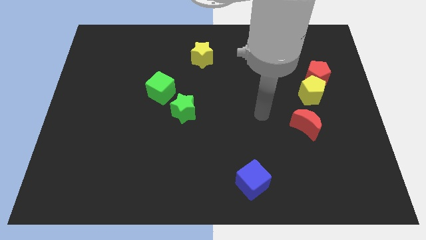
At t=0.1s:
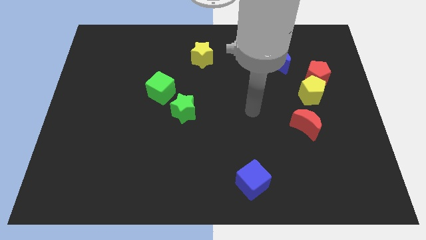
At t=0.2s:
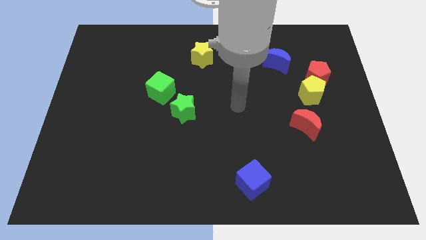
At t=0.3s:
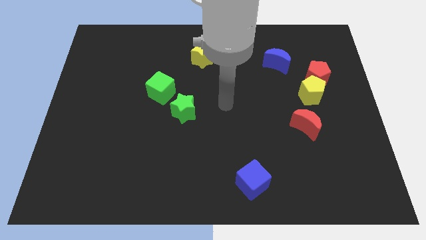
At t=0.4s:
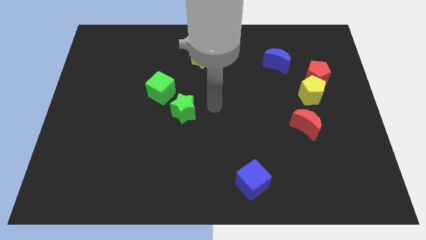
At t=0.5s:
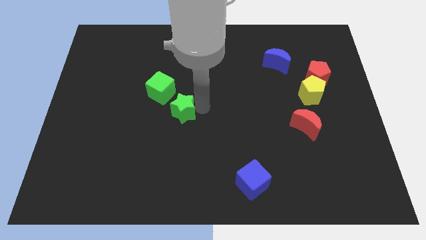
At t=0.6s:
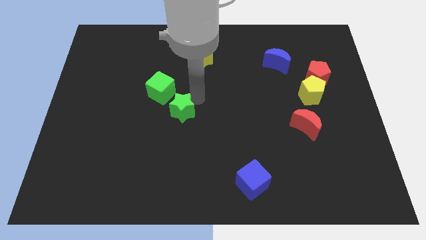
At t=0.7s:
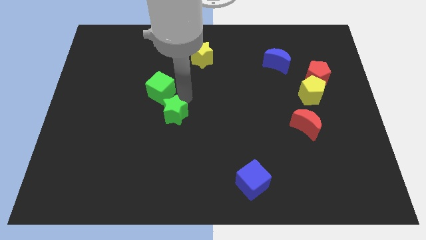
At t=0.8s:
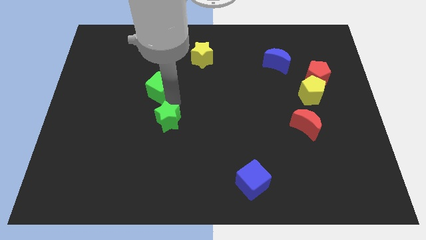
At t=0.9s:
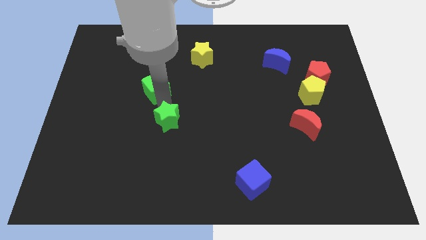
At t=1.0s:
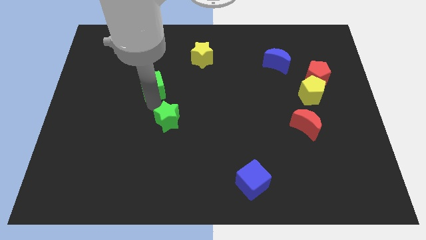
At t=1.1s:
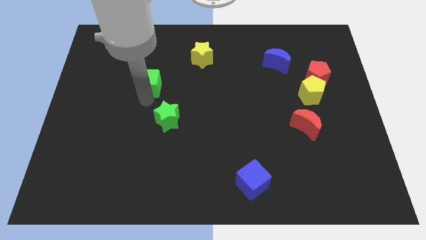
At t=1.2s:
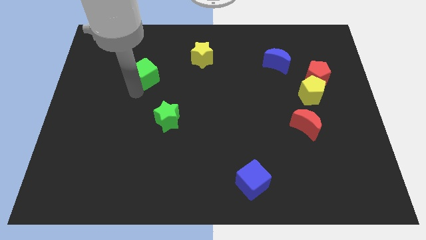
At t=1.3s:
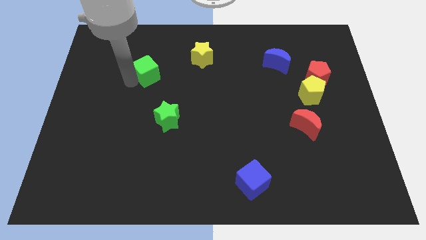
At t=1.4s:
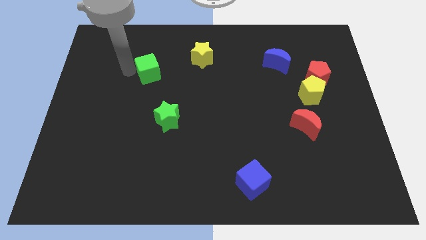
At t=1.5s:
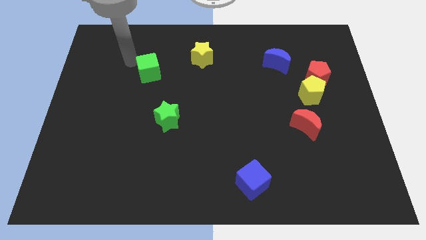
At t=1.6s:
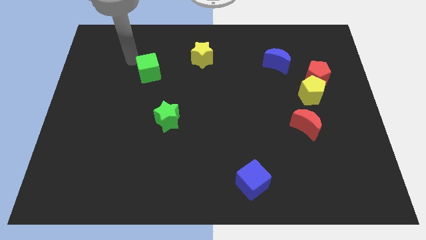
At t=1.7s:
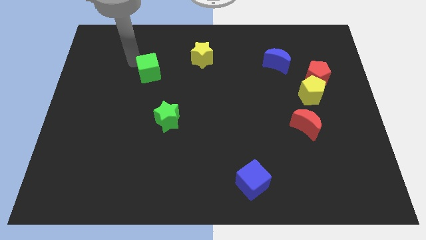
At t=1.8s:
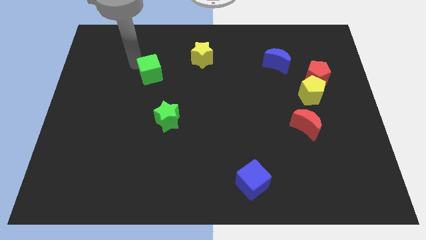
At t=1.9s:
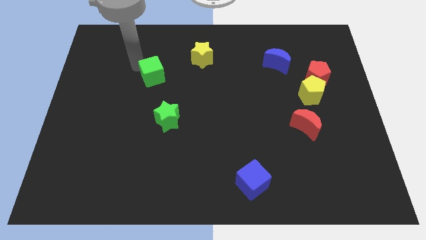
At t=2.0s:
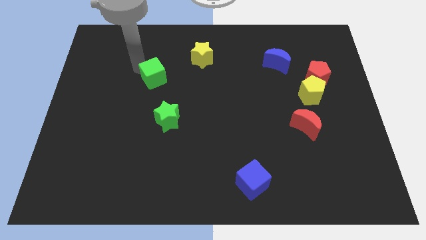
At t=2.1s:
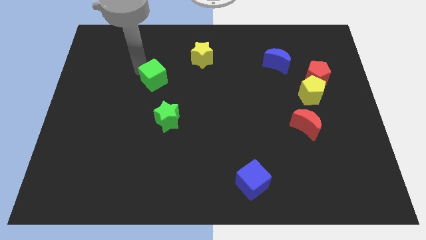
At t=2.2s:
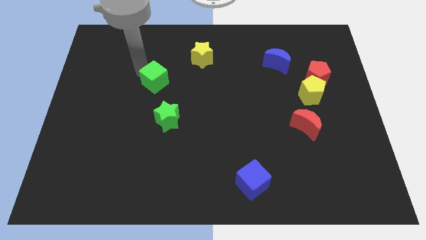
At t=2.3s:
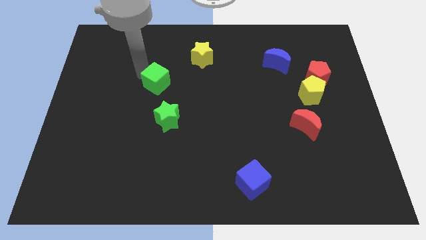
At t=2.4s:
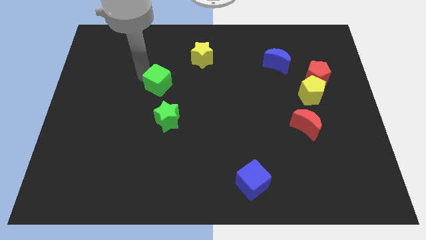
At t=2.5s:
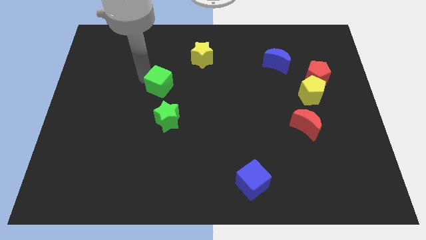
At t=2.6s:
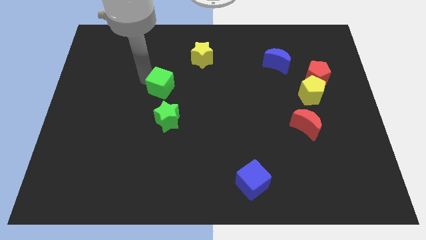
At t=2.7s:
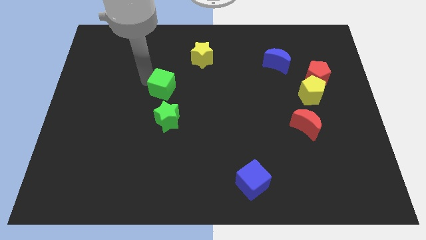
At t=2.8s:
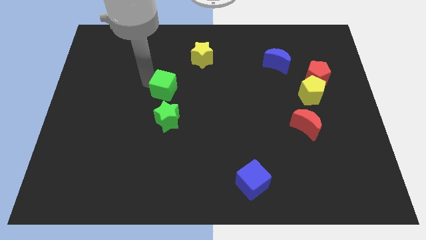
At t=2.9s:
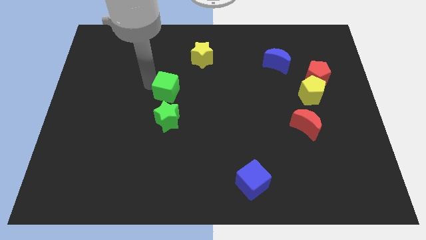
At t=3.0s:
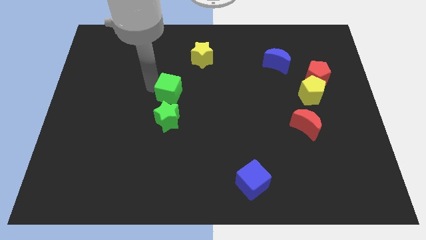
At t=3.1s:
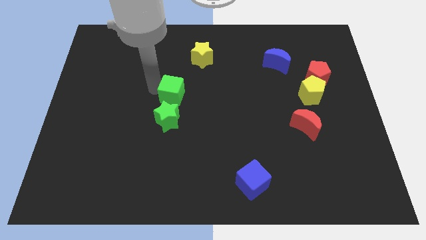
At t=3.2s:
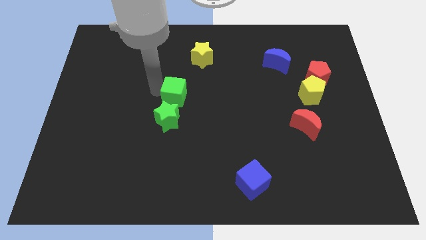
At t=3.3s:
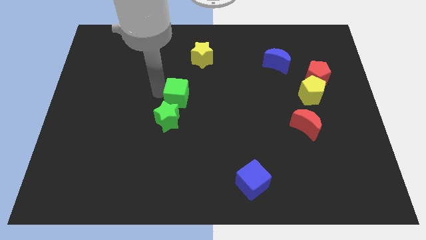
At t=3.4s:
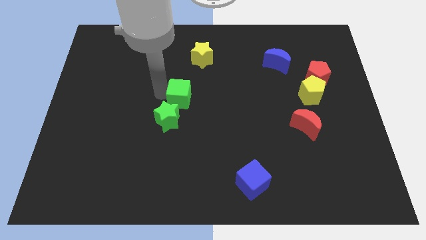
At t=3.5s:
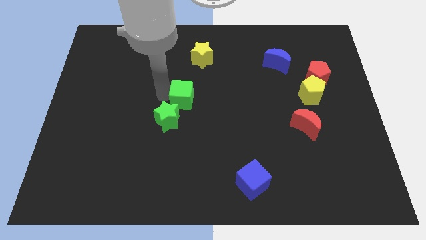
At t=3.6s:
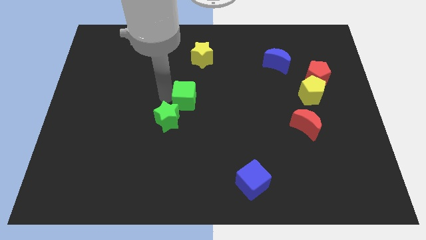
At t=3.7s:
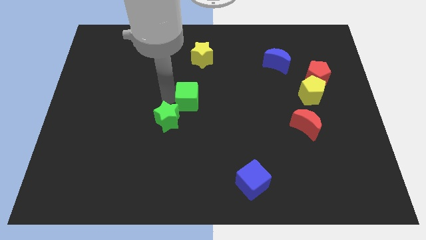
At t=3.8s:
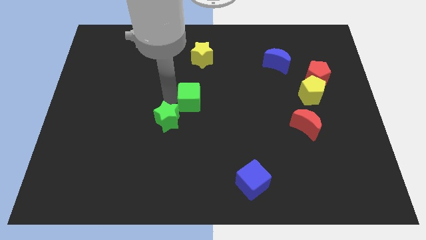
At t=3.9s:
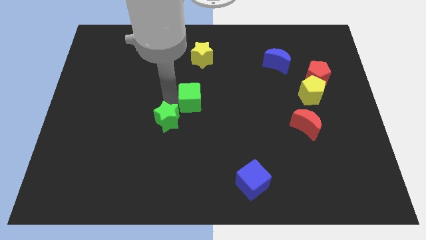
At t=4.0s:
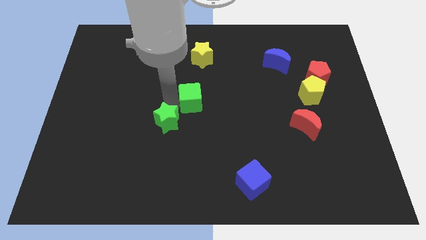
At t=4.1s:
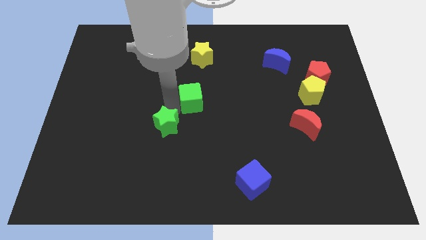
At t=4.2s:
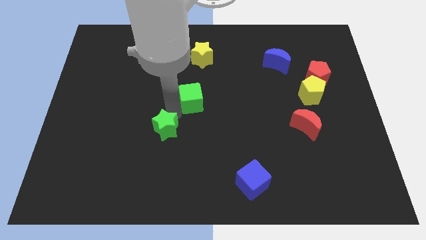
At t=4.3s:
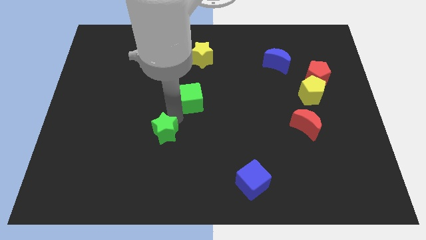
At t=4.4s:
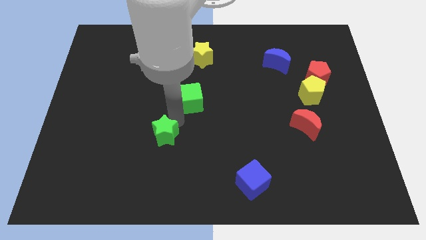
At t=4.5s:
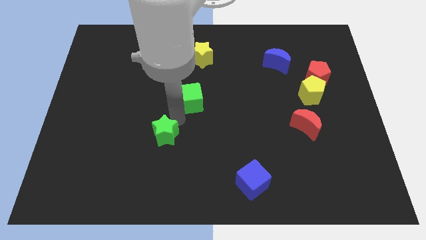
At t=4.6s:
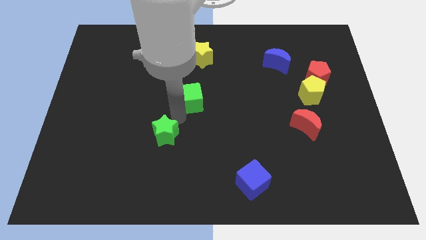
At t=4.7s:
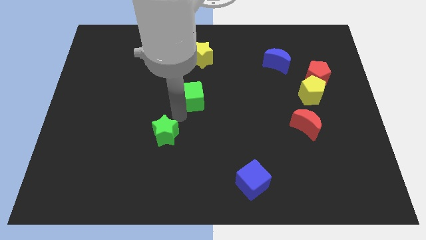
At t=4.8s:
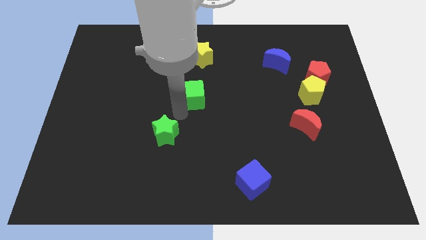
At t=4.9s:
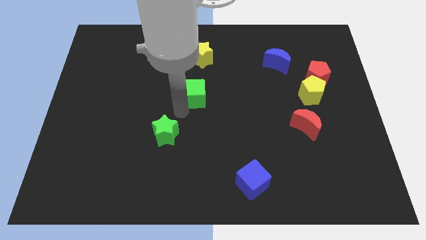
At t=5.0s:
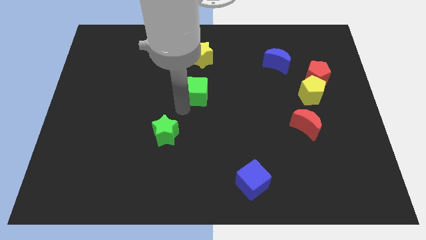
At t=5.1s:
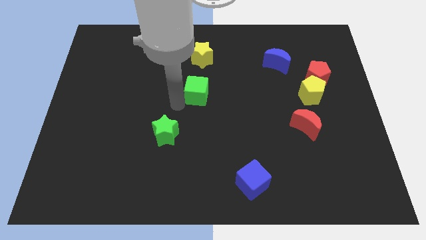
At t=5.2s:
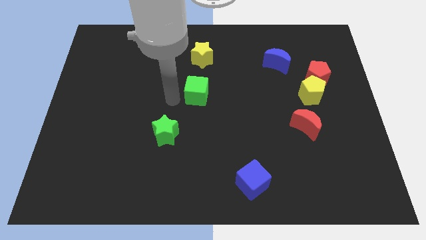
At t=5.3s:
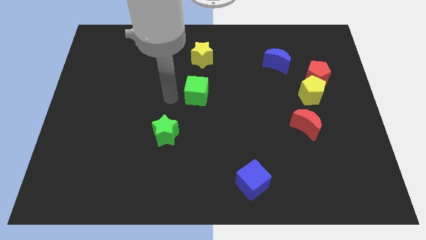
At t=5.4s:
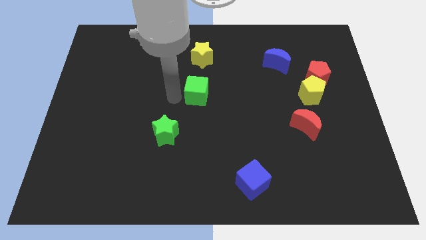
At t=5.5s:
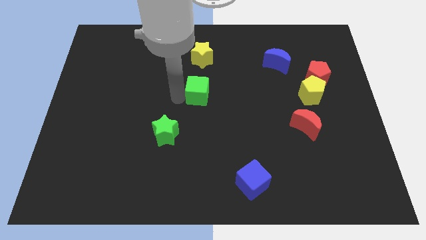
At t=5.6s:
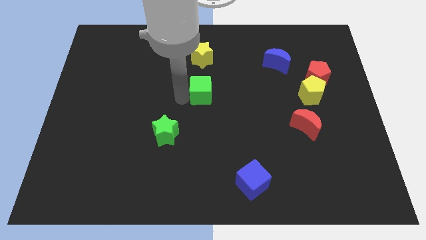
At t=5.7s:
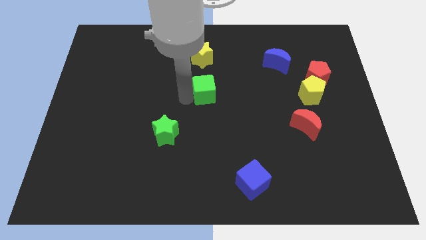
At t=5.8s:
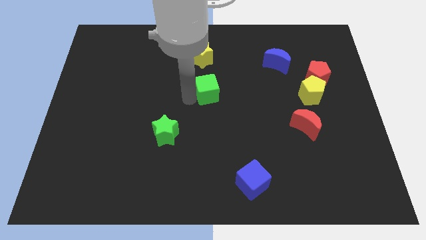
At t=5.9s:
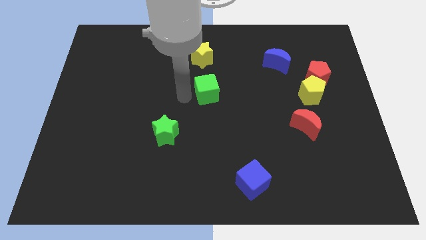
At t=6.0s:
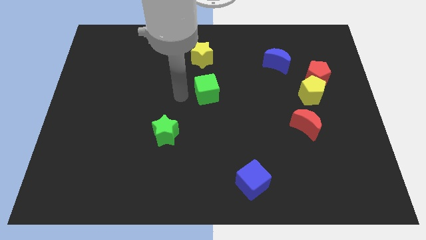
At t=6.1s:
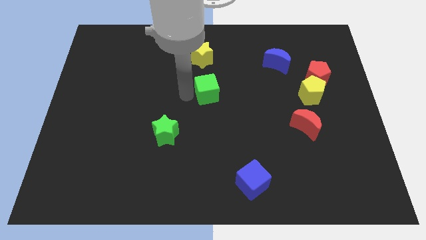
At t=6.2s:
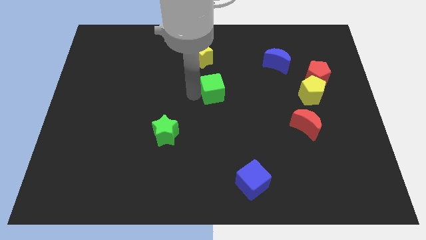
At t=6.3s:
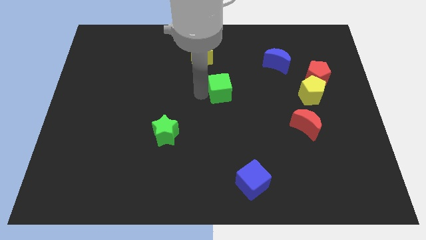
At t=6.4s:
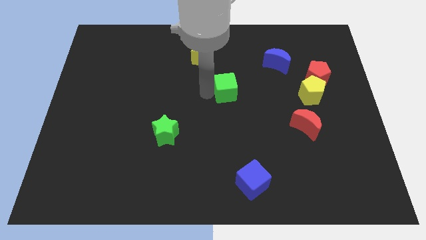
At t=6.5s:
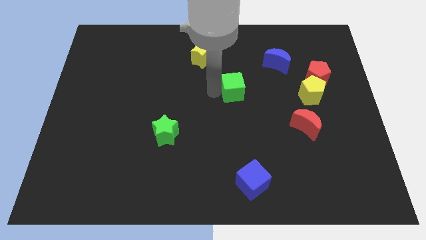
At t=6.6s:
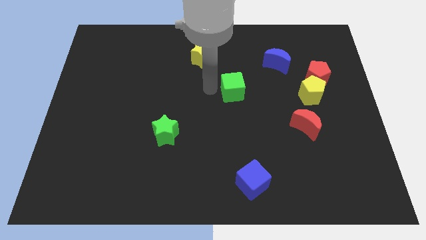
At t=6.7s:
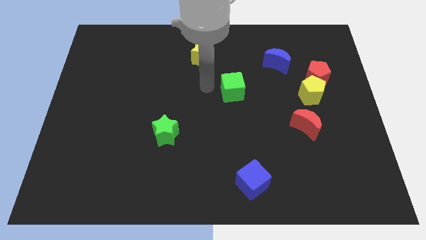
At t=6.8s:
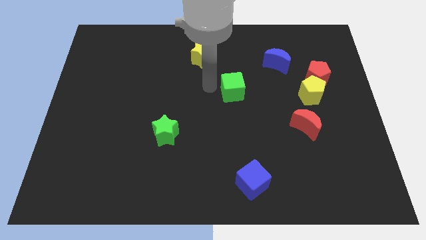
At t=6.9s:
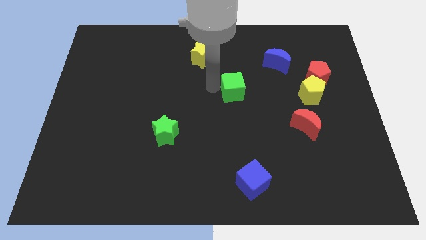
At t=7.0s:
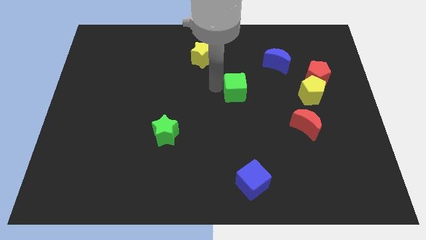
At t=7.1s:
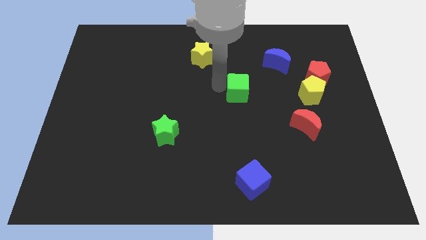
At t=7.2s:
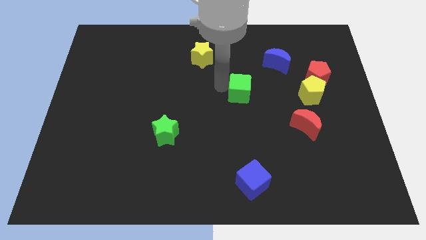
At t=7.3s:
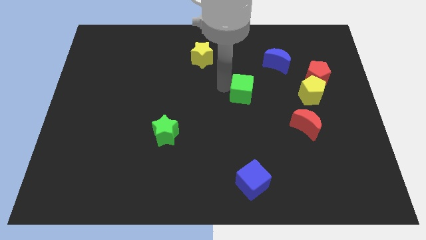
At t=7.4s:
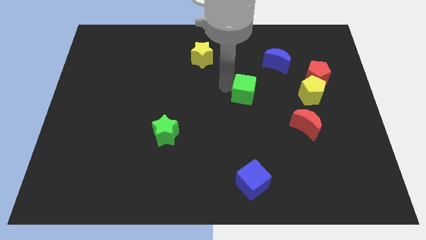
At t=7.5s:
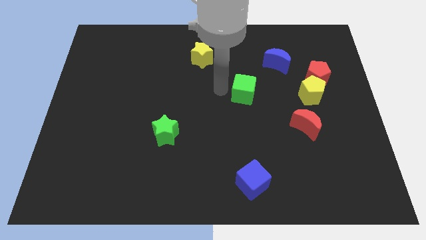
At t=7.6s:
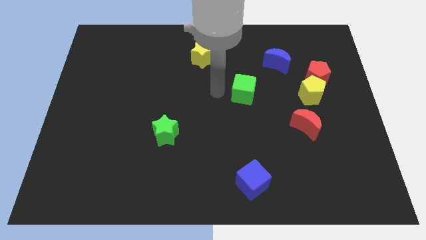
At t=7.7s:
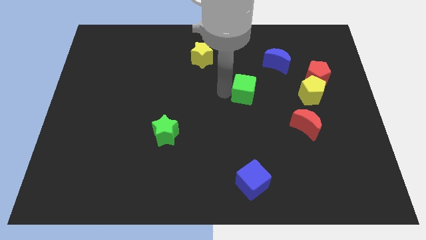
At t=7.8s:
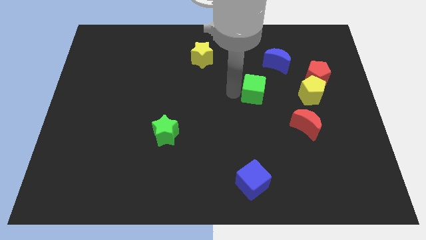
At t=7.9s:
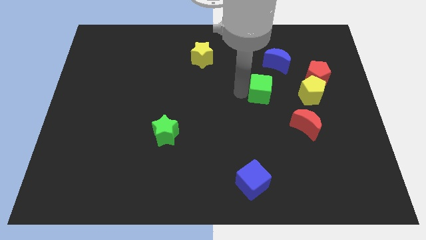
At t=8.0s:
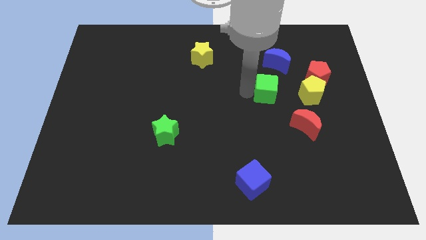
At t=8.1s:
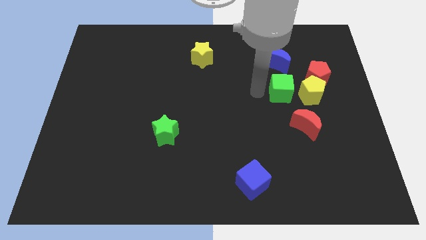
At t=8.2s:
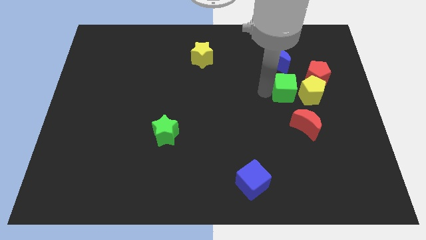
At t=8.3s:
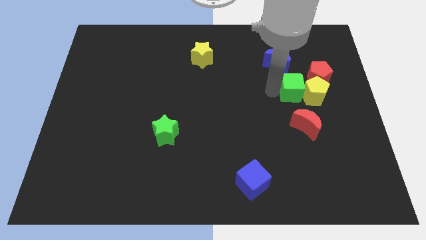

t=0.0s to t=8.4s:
move the green cube towards the yellow pentagon

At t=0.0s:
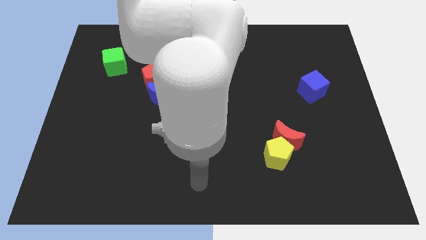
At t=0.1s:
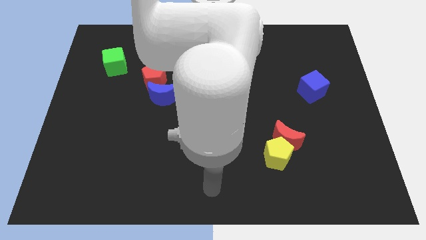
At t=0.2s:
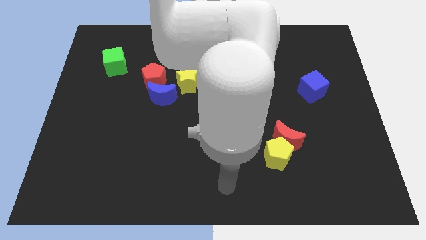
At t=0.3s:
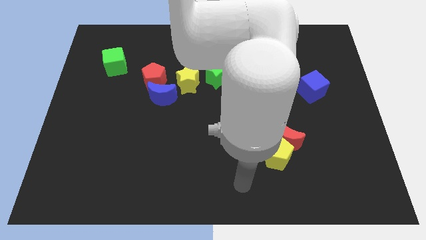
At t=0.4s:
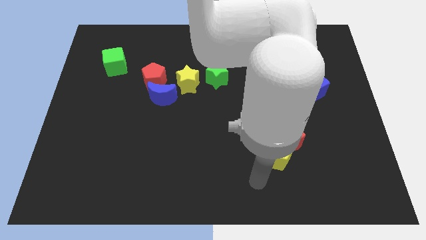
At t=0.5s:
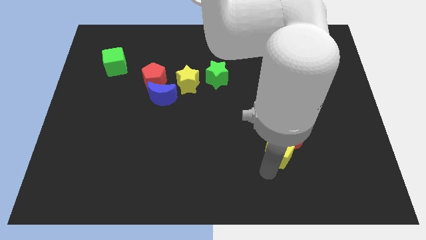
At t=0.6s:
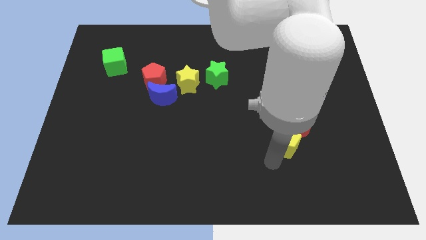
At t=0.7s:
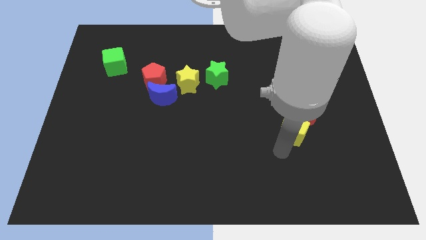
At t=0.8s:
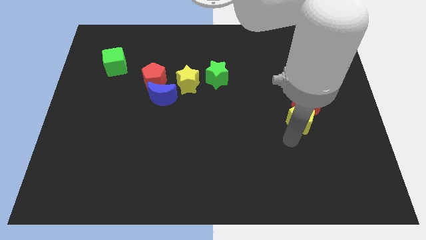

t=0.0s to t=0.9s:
put the red moon towards the blue cube
